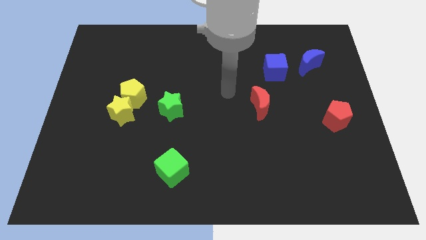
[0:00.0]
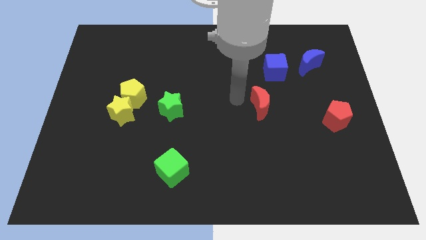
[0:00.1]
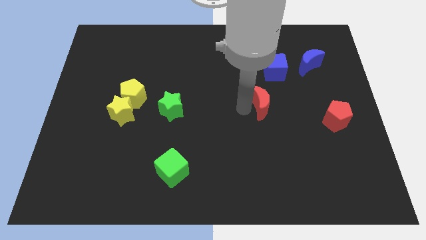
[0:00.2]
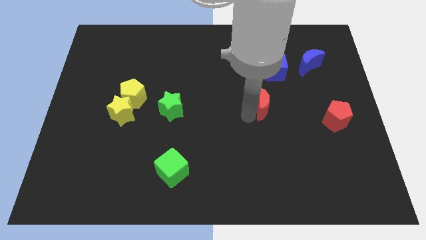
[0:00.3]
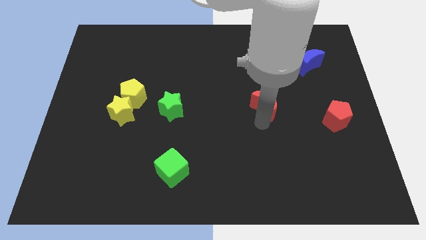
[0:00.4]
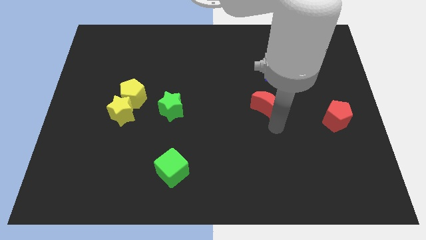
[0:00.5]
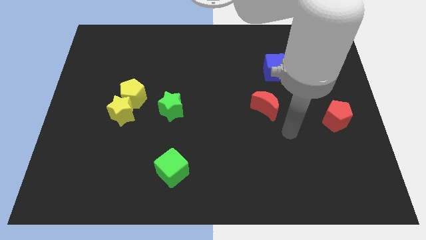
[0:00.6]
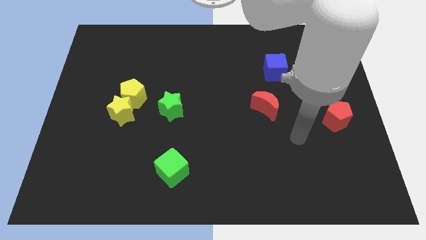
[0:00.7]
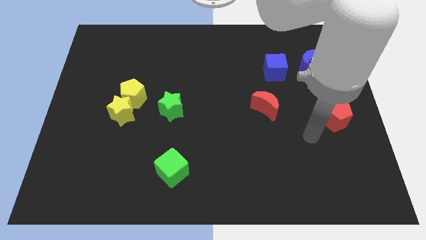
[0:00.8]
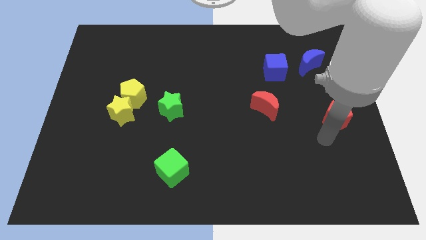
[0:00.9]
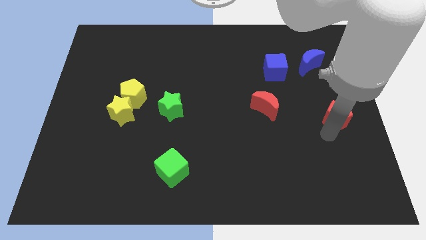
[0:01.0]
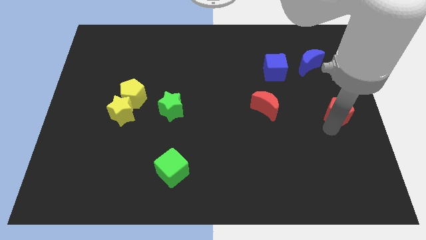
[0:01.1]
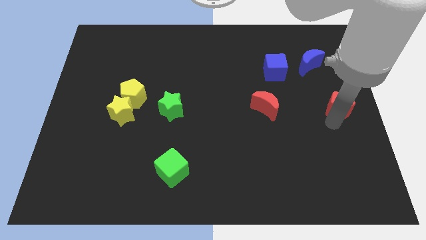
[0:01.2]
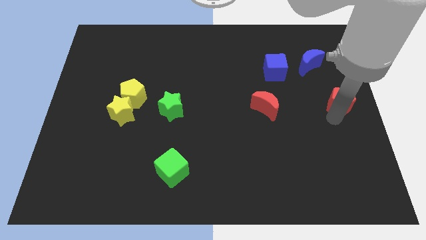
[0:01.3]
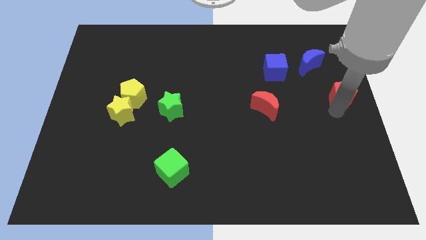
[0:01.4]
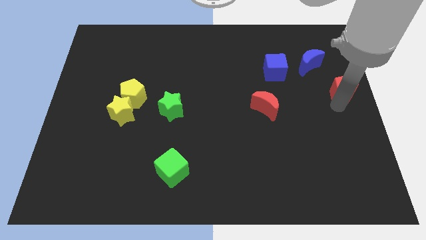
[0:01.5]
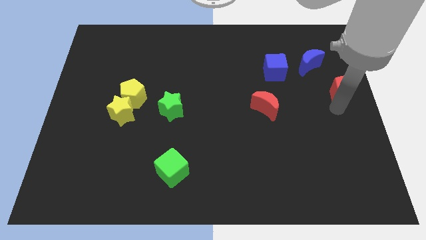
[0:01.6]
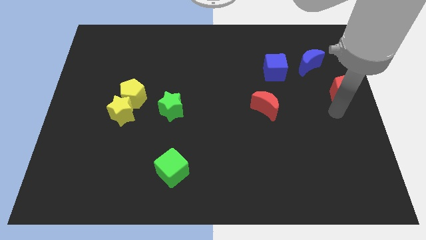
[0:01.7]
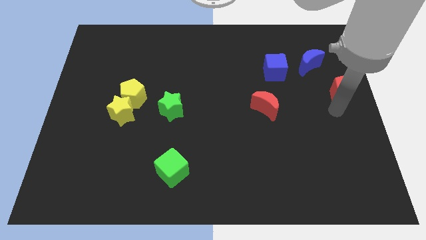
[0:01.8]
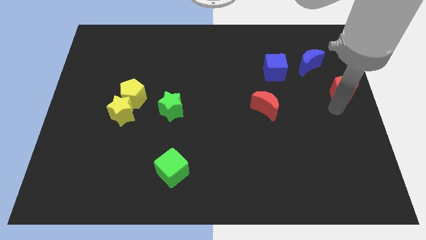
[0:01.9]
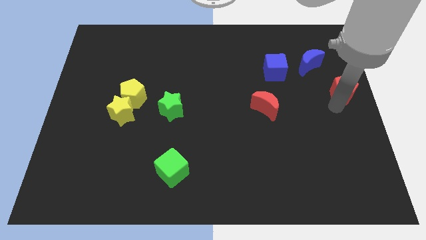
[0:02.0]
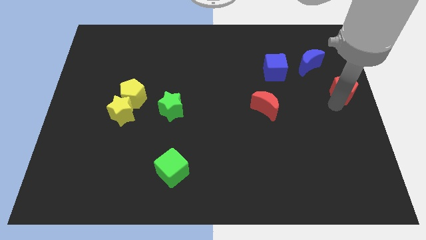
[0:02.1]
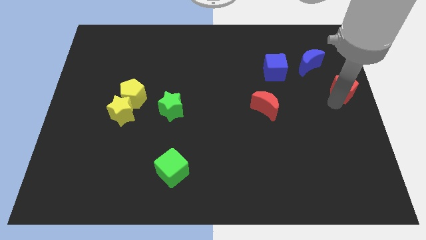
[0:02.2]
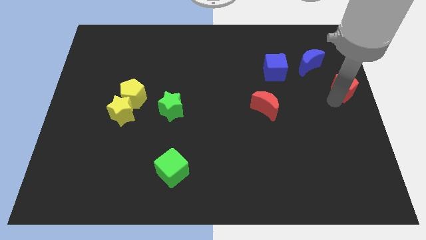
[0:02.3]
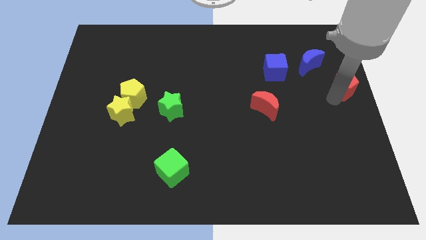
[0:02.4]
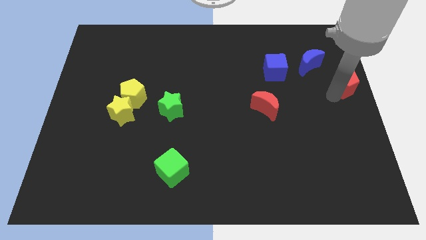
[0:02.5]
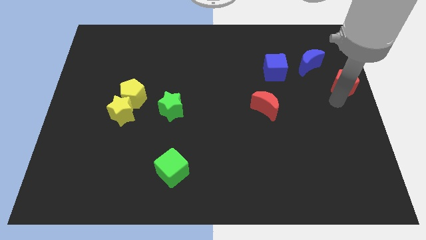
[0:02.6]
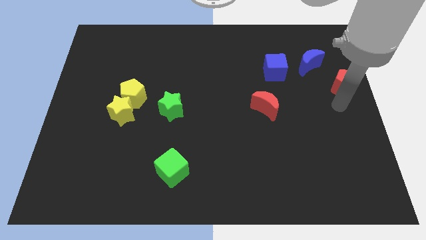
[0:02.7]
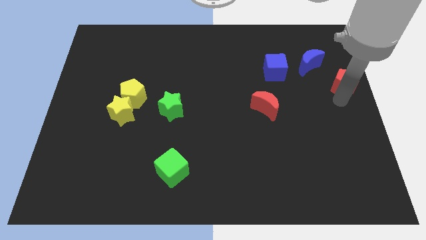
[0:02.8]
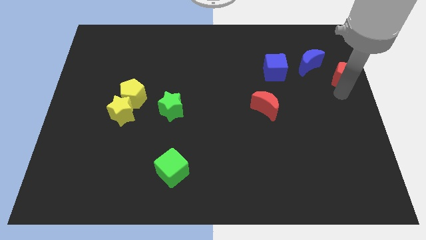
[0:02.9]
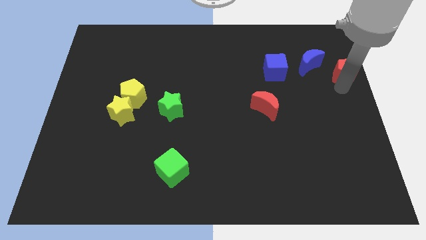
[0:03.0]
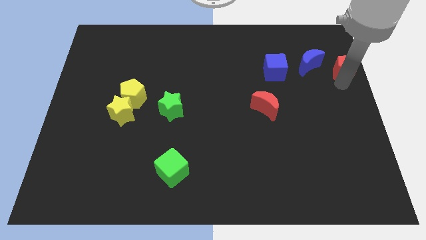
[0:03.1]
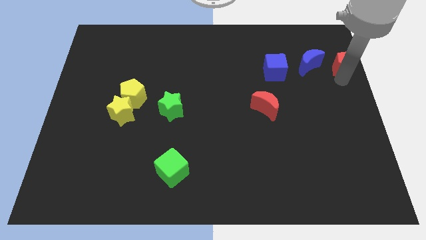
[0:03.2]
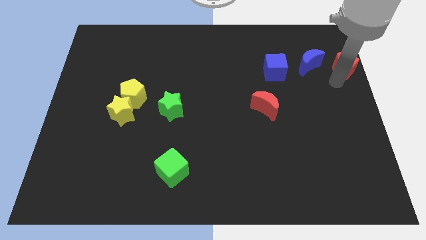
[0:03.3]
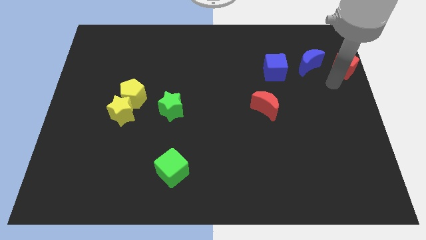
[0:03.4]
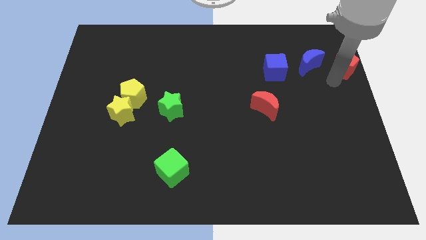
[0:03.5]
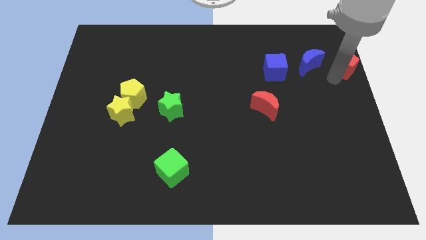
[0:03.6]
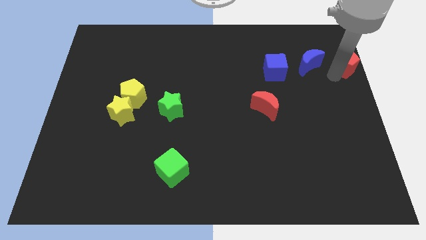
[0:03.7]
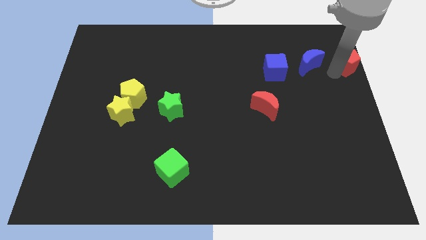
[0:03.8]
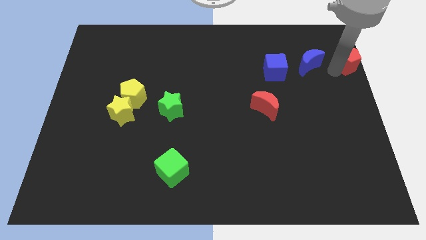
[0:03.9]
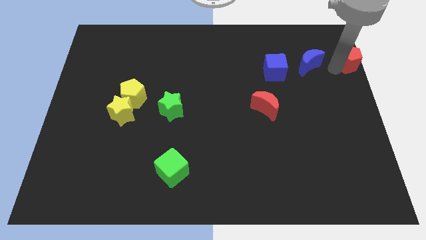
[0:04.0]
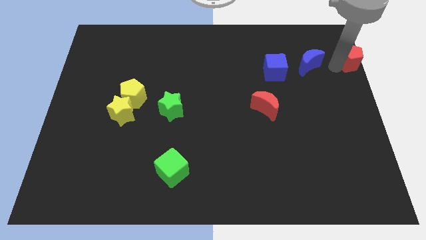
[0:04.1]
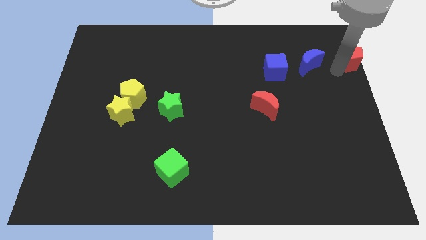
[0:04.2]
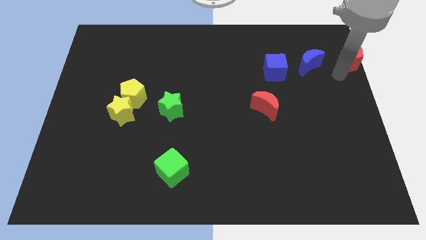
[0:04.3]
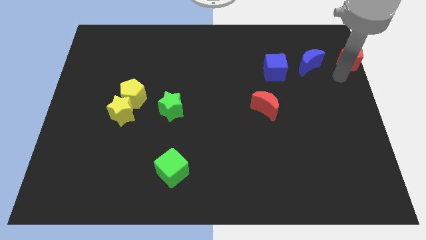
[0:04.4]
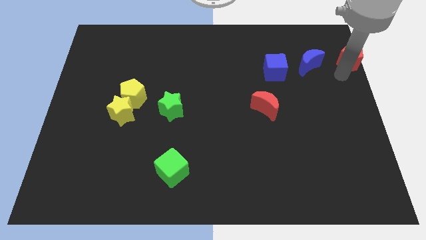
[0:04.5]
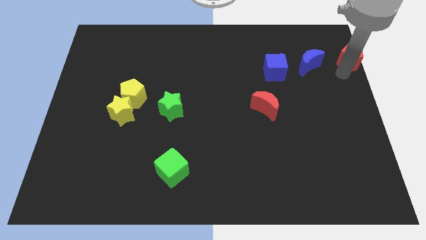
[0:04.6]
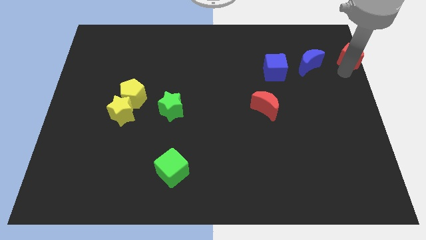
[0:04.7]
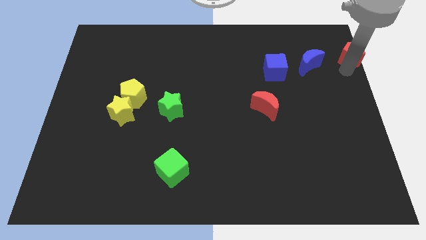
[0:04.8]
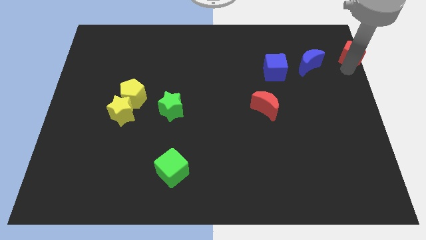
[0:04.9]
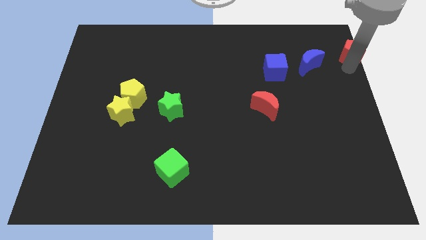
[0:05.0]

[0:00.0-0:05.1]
move the red pentagon to the top right

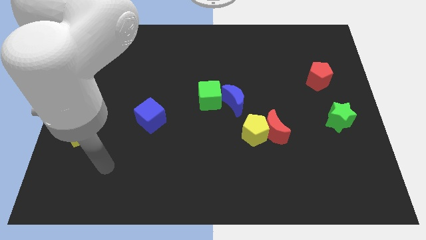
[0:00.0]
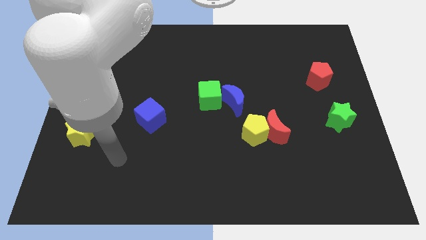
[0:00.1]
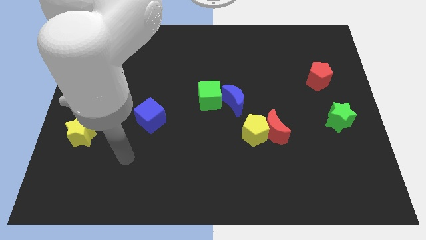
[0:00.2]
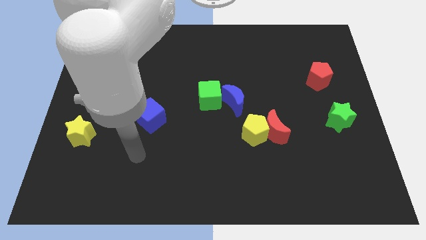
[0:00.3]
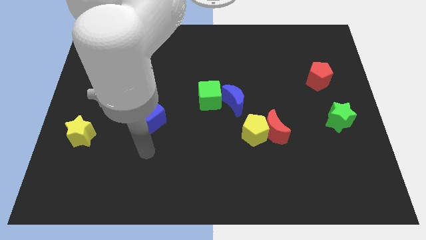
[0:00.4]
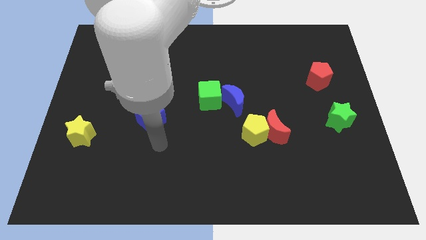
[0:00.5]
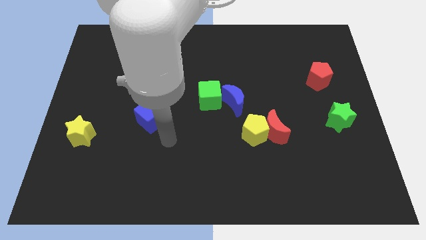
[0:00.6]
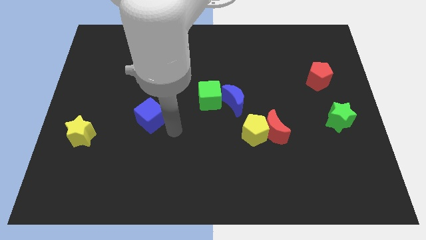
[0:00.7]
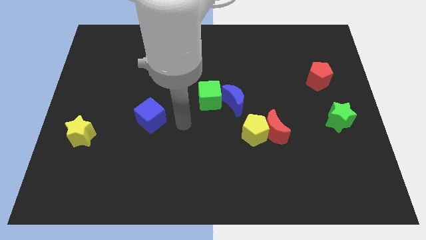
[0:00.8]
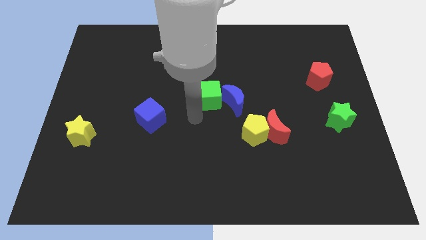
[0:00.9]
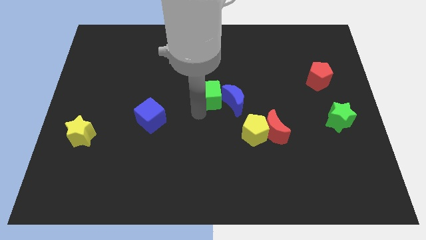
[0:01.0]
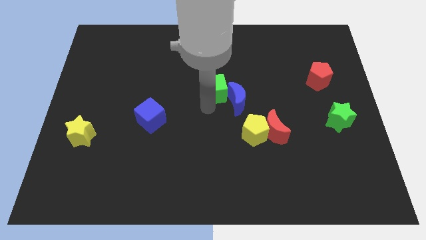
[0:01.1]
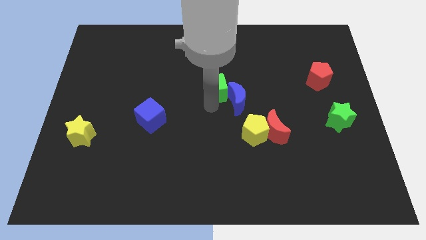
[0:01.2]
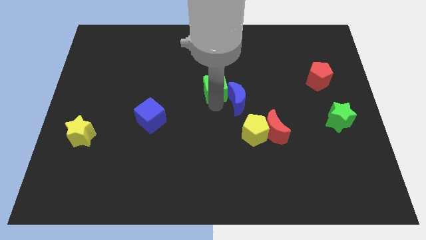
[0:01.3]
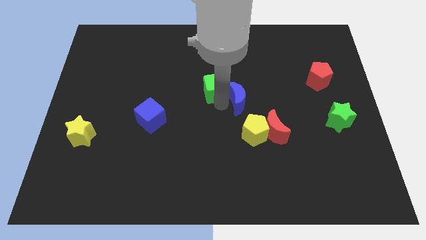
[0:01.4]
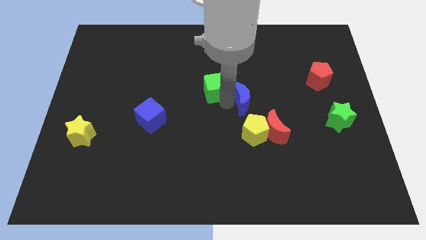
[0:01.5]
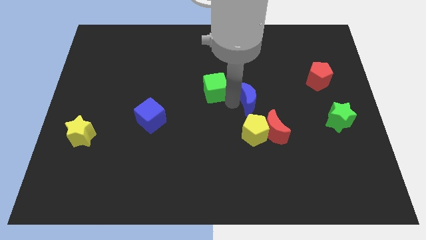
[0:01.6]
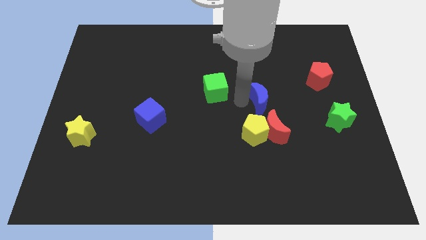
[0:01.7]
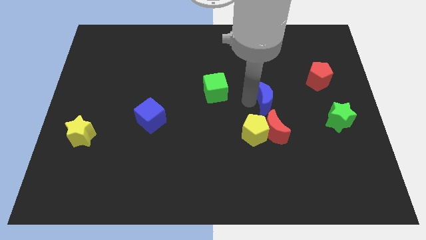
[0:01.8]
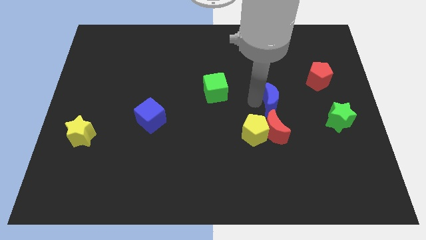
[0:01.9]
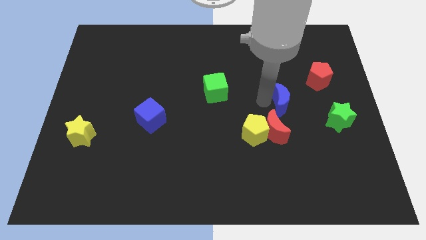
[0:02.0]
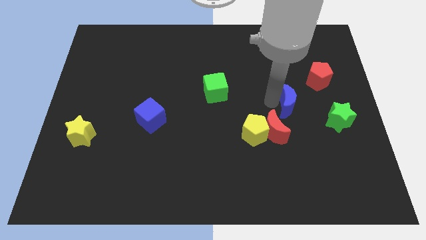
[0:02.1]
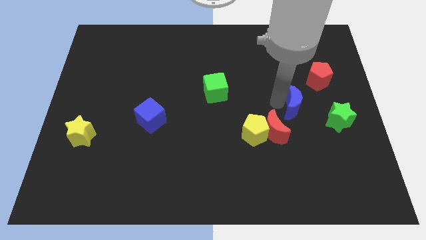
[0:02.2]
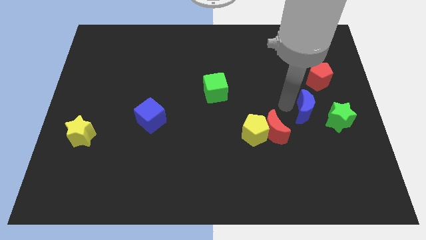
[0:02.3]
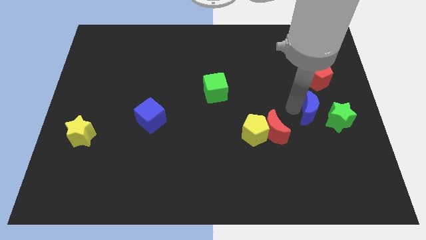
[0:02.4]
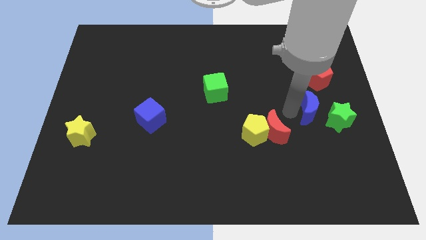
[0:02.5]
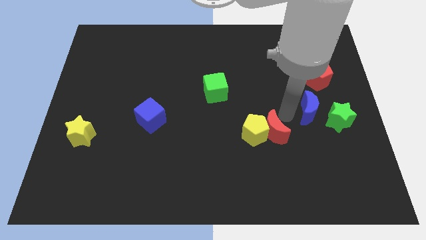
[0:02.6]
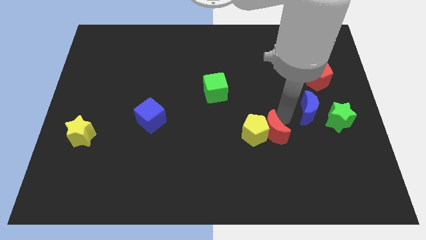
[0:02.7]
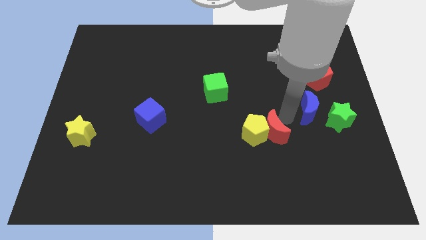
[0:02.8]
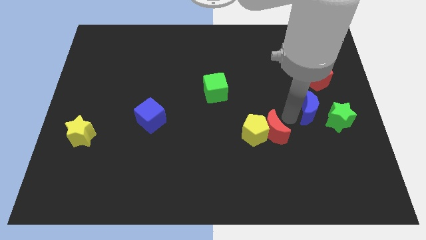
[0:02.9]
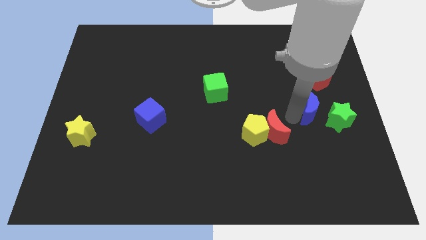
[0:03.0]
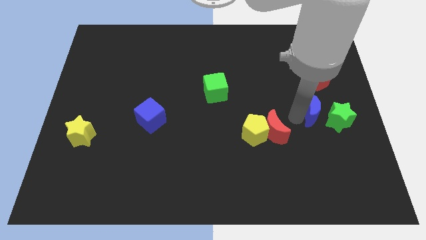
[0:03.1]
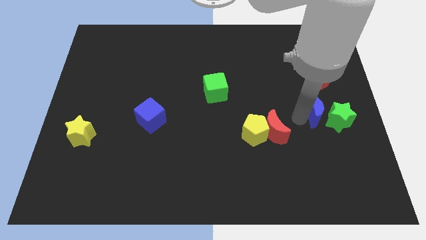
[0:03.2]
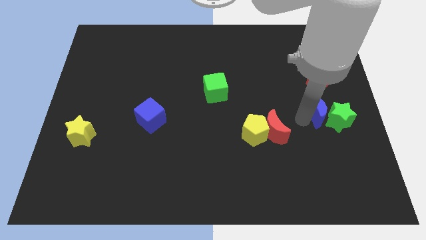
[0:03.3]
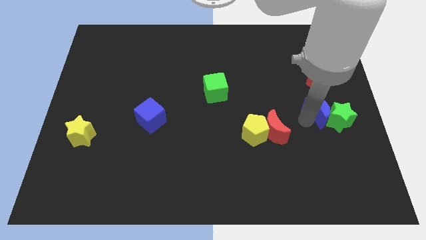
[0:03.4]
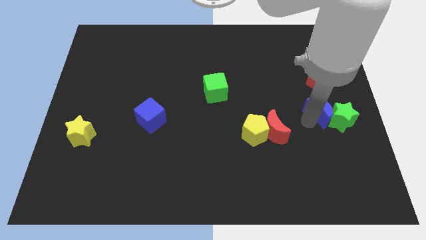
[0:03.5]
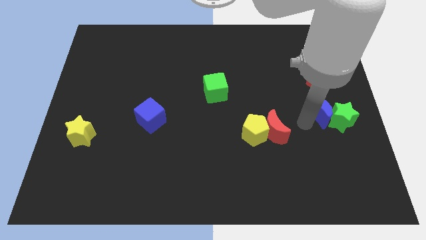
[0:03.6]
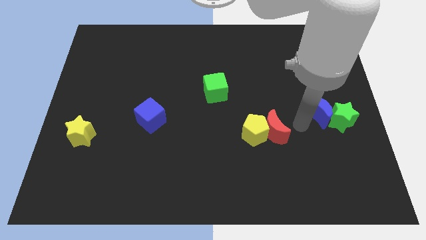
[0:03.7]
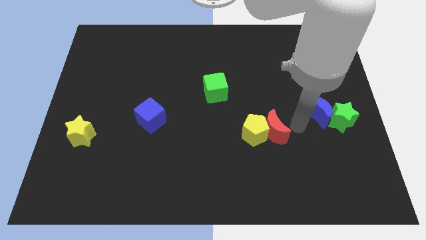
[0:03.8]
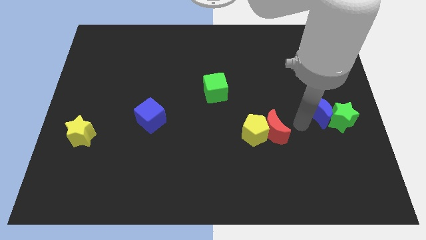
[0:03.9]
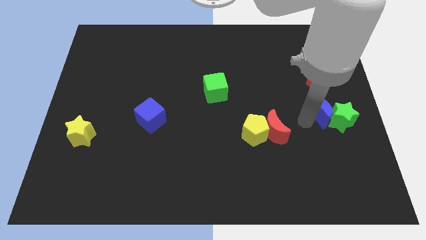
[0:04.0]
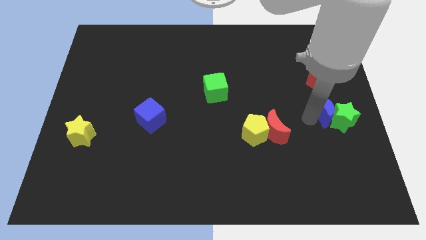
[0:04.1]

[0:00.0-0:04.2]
put the blue moon to the right side of the board
